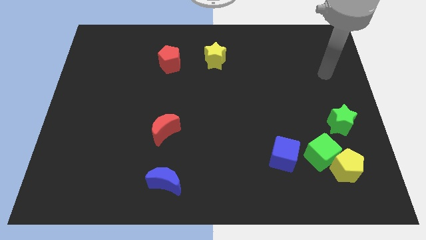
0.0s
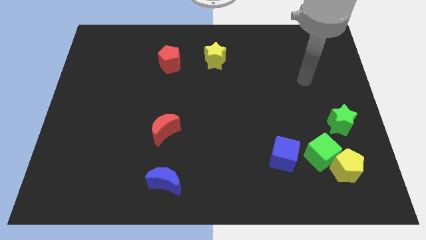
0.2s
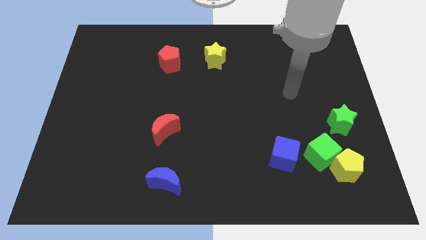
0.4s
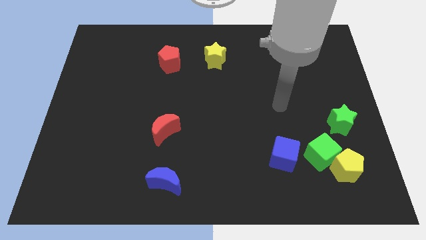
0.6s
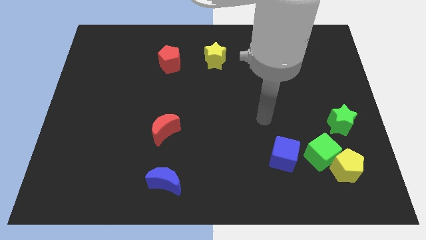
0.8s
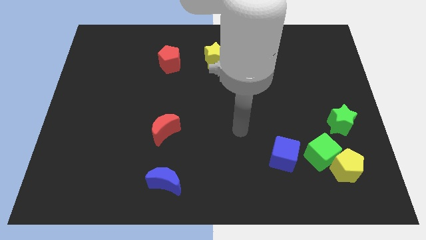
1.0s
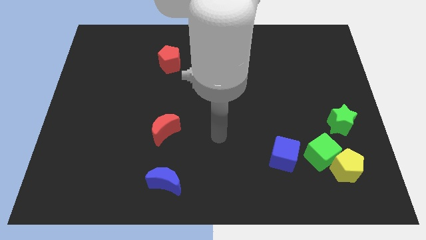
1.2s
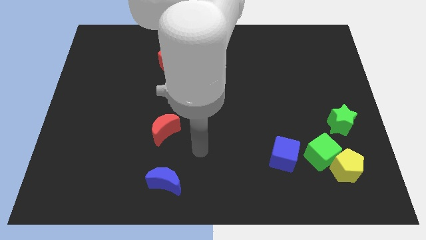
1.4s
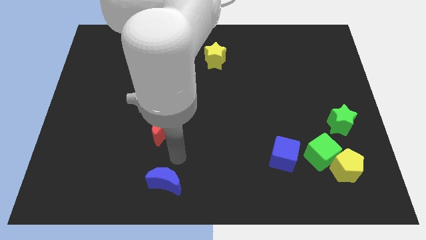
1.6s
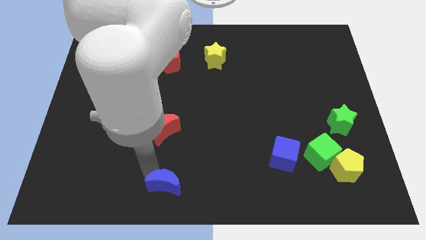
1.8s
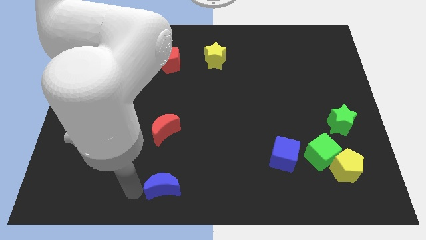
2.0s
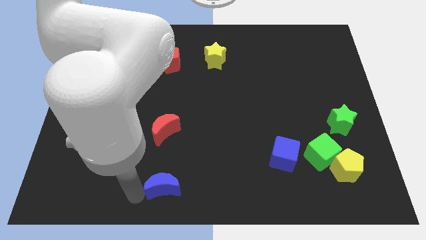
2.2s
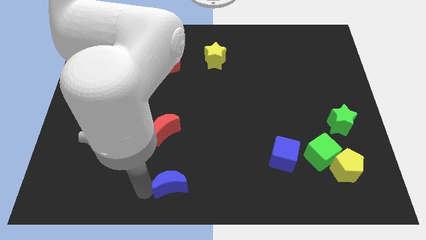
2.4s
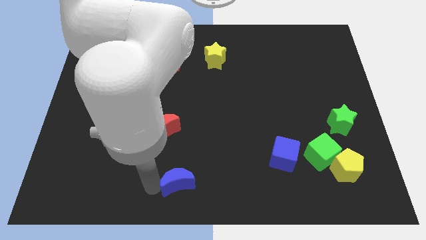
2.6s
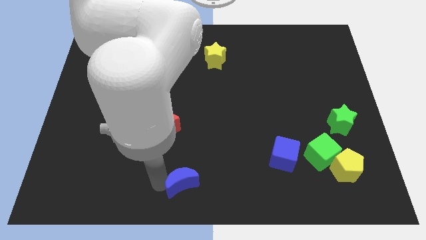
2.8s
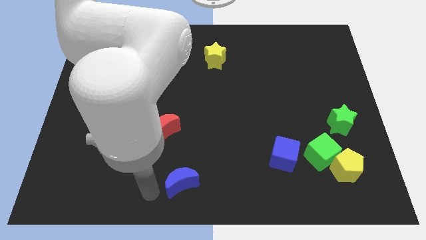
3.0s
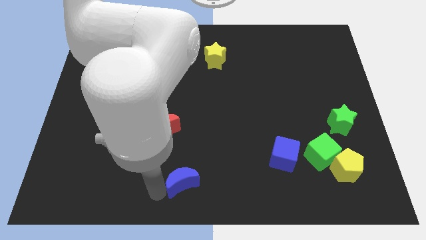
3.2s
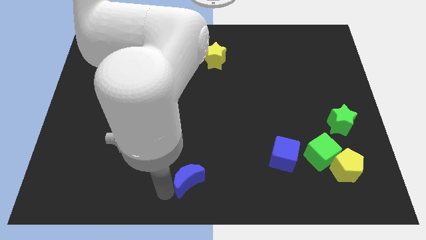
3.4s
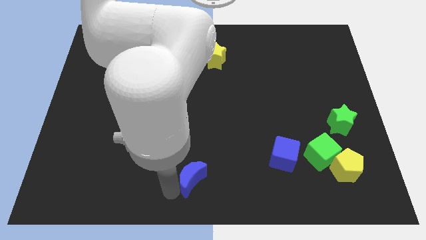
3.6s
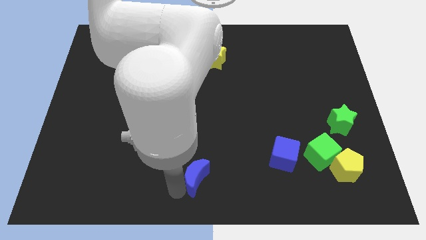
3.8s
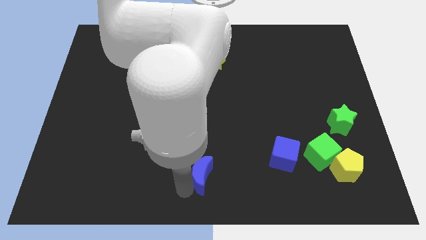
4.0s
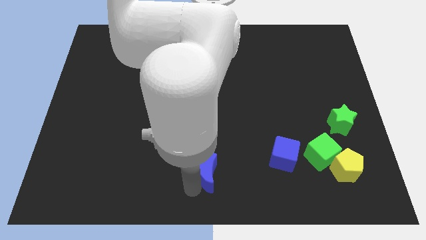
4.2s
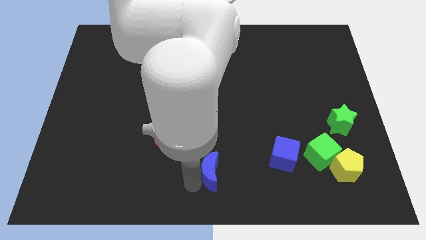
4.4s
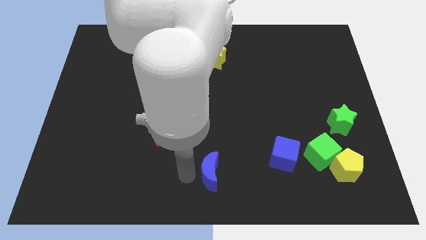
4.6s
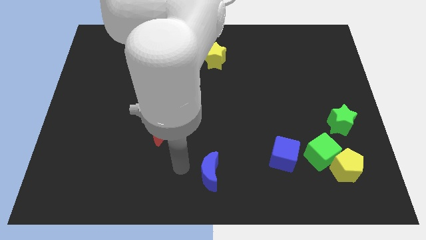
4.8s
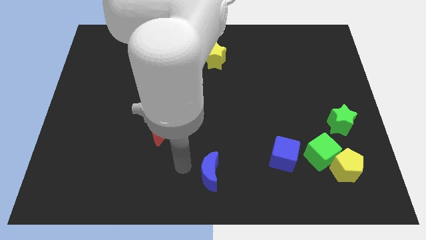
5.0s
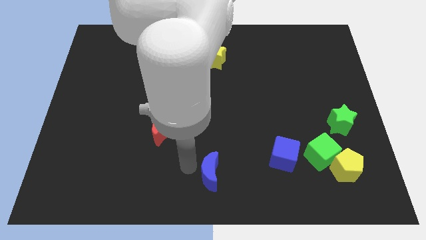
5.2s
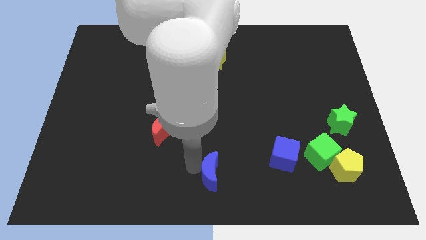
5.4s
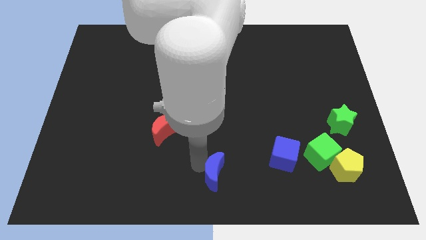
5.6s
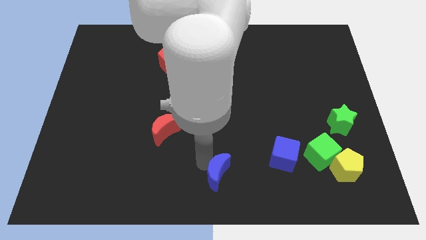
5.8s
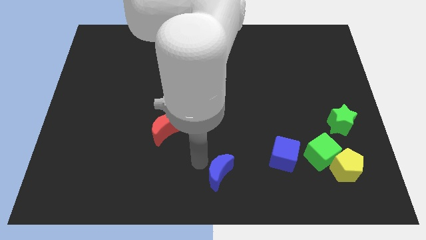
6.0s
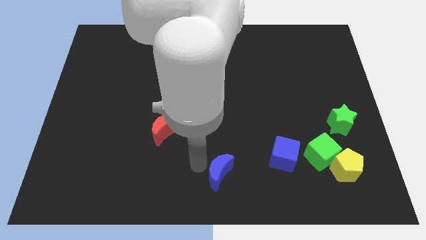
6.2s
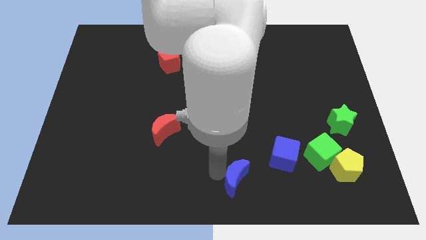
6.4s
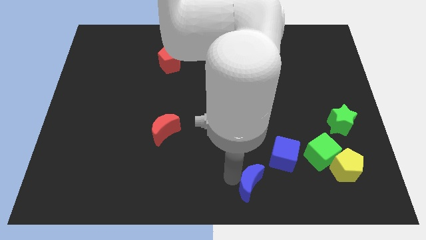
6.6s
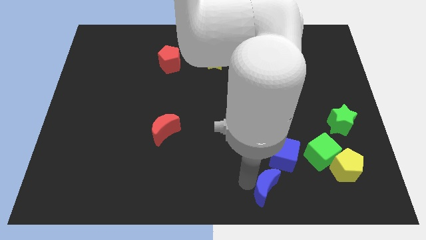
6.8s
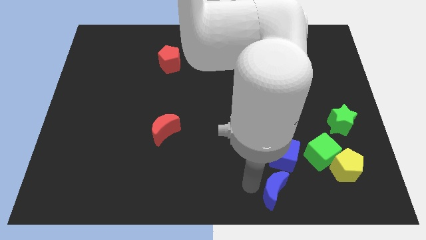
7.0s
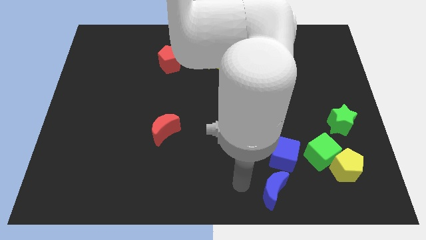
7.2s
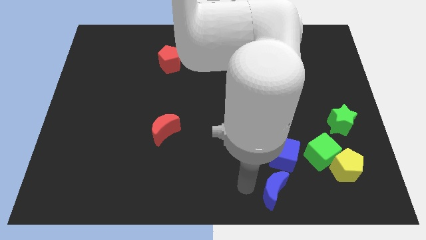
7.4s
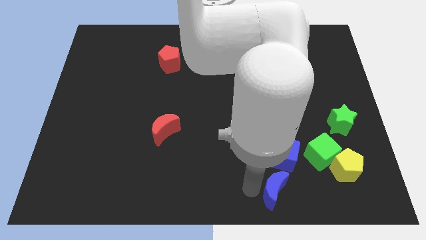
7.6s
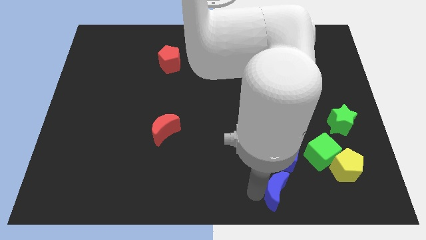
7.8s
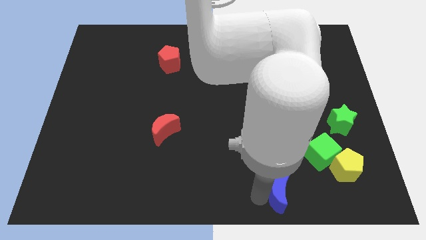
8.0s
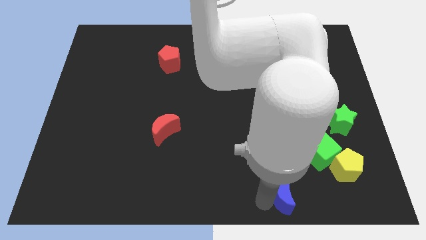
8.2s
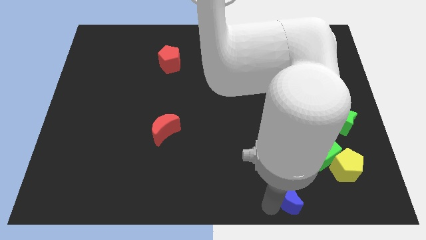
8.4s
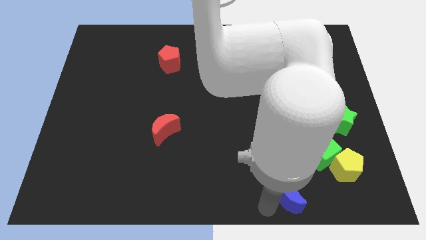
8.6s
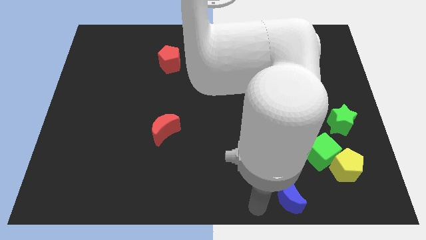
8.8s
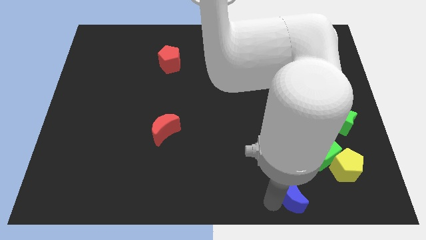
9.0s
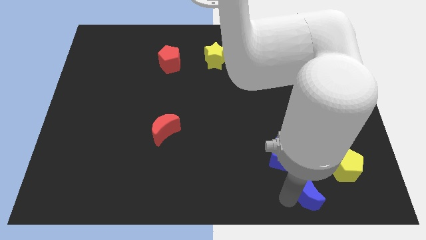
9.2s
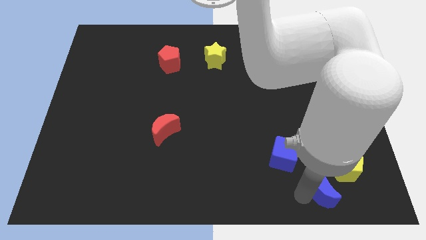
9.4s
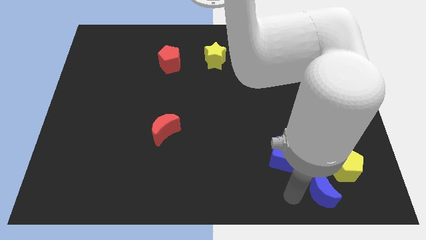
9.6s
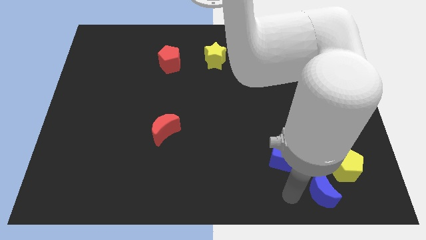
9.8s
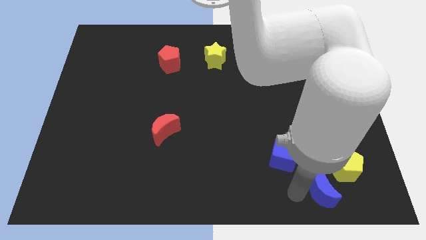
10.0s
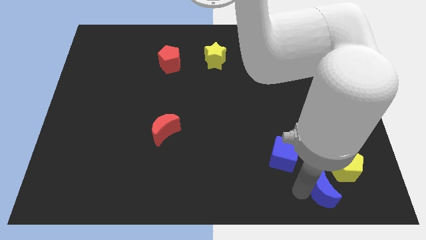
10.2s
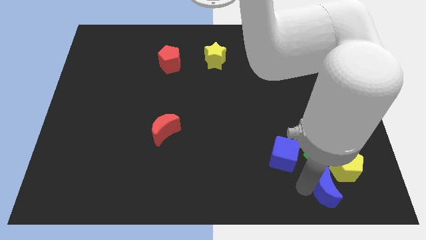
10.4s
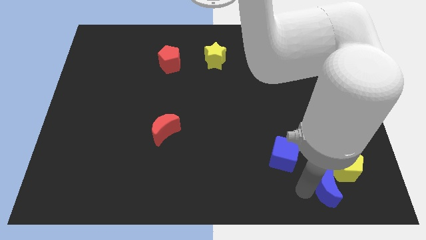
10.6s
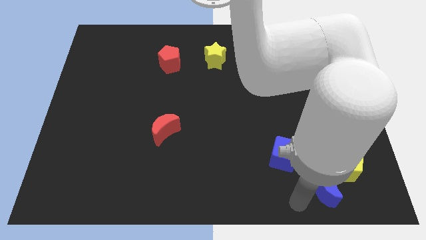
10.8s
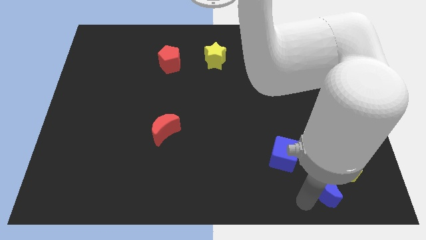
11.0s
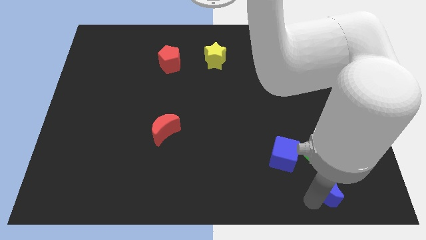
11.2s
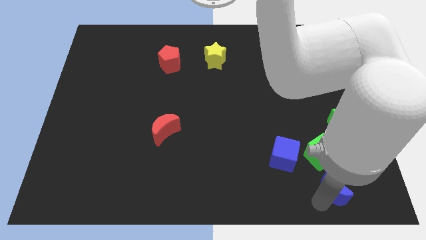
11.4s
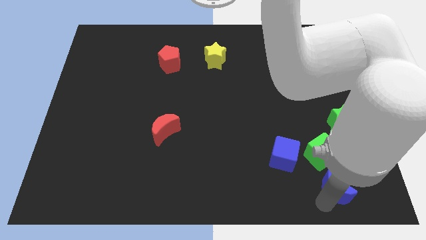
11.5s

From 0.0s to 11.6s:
move the blue moon to the bottom right of the green cube

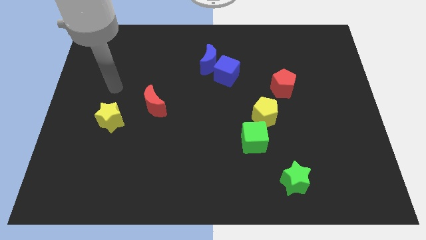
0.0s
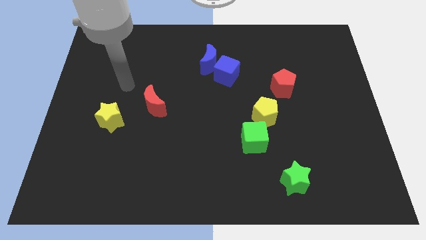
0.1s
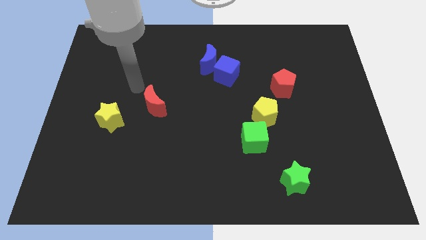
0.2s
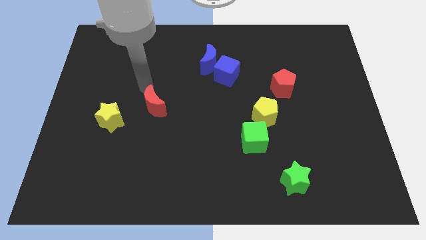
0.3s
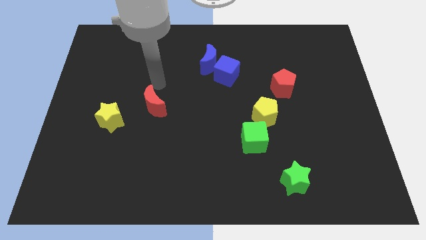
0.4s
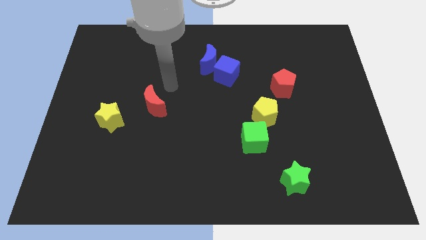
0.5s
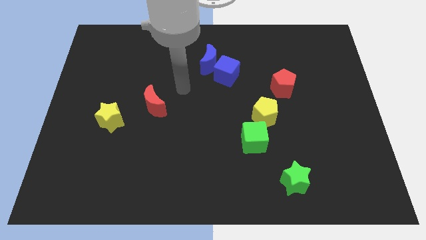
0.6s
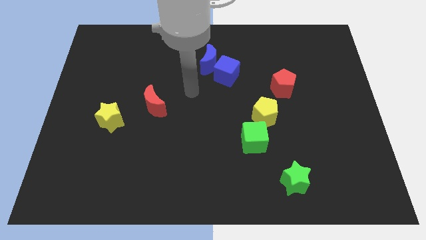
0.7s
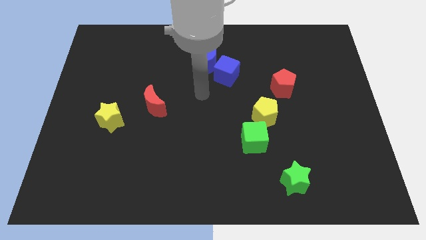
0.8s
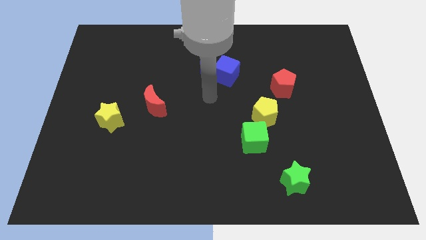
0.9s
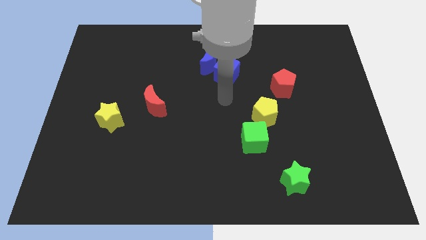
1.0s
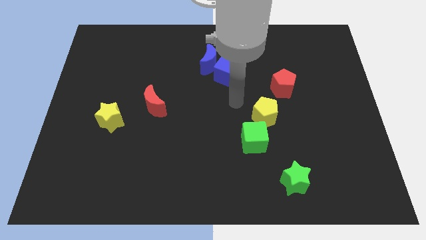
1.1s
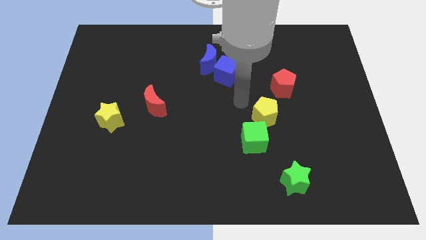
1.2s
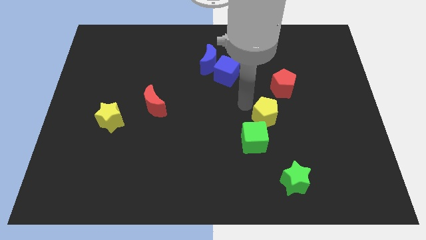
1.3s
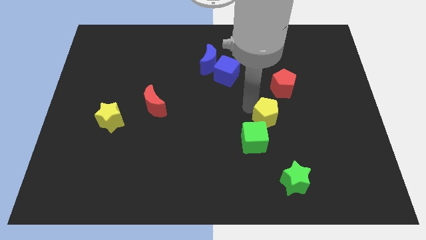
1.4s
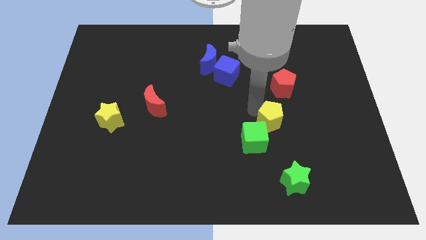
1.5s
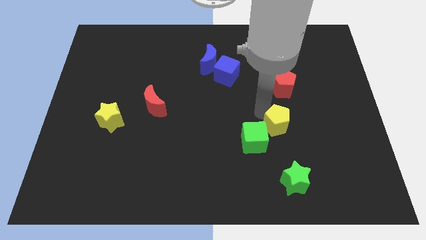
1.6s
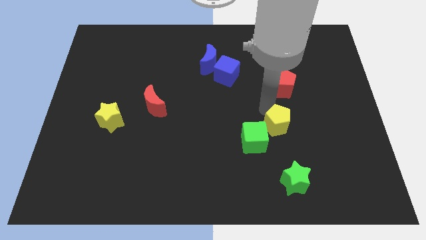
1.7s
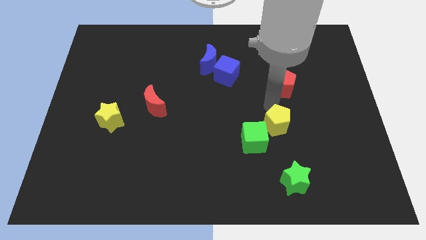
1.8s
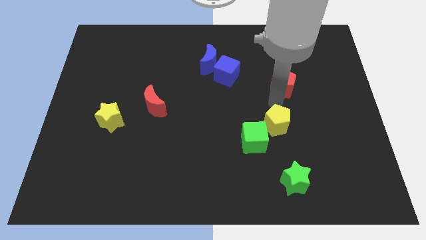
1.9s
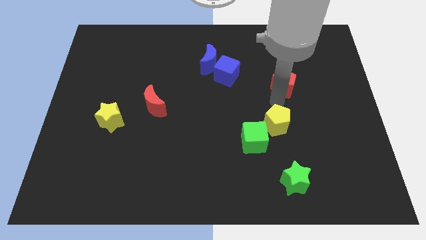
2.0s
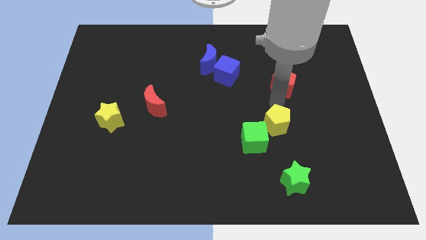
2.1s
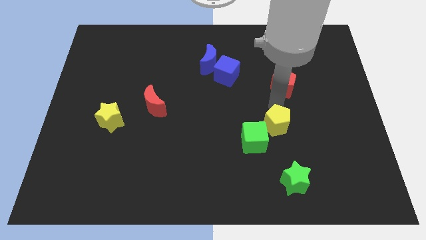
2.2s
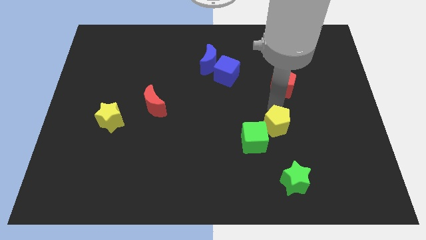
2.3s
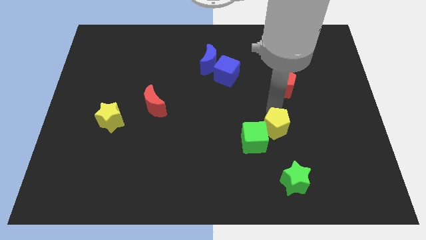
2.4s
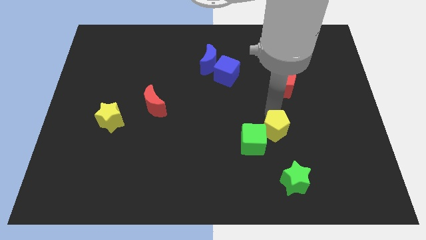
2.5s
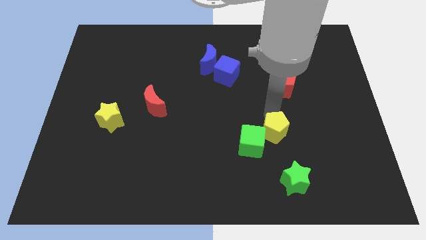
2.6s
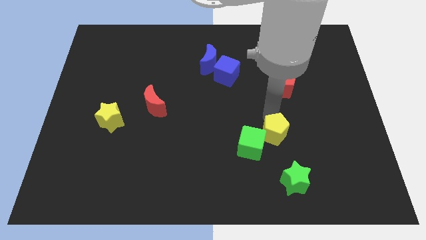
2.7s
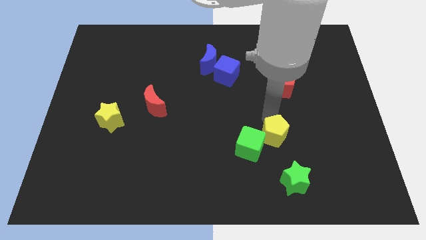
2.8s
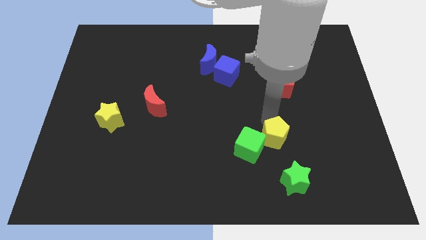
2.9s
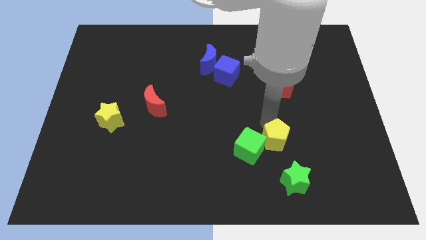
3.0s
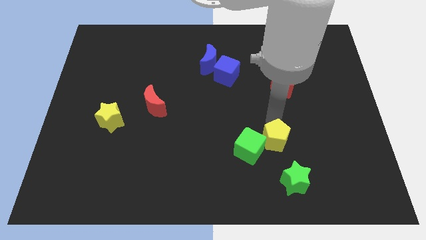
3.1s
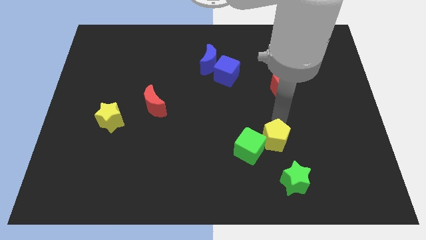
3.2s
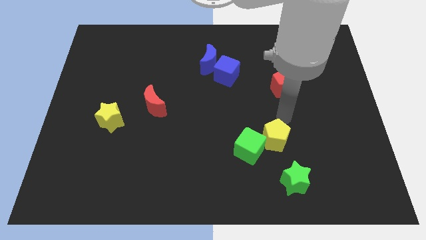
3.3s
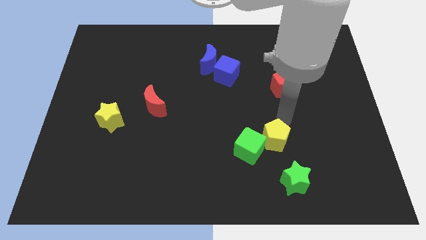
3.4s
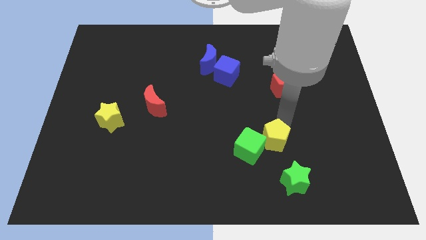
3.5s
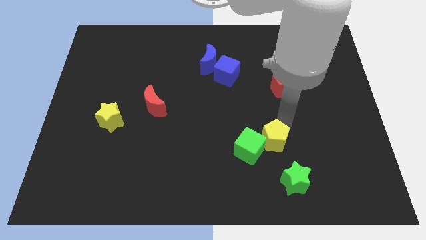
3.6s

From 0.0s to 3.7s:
push the yellow pentagon diagonally up and to the left of the green star
